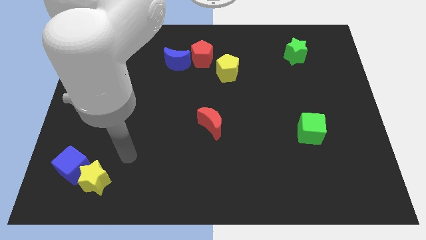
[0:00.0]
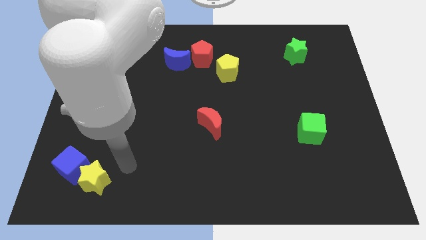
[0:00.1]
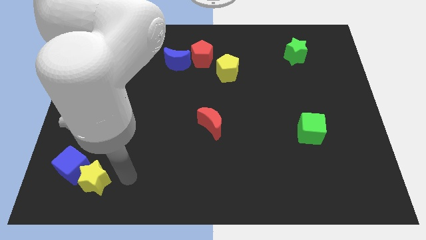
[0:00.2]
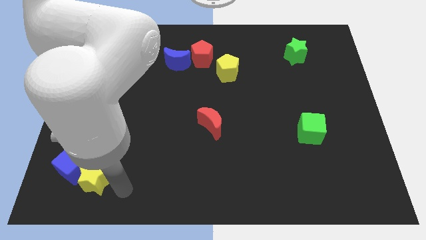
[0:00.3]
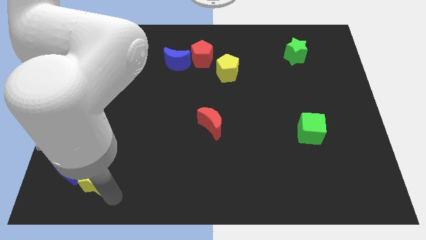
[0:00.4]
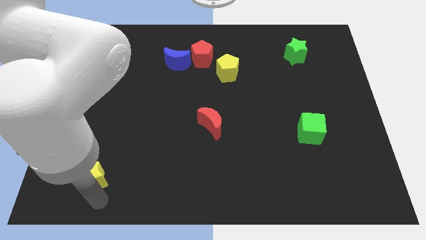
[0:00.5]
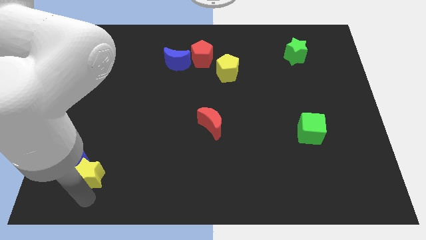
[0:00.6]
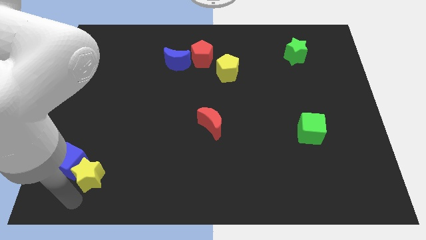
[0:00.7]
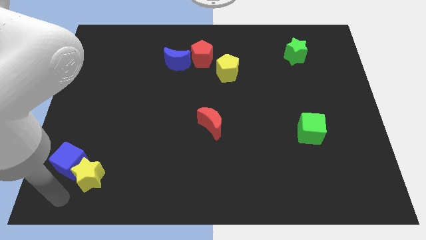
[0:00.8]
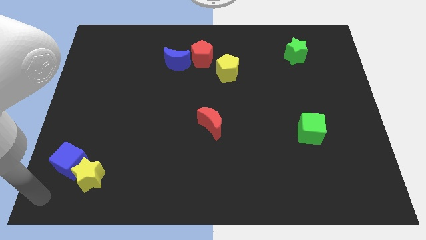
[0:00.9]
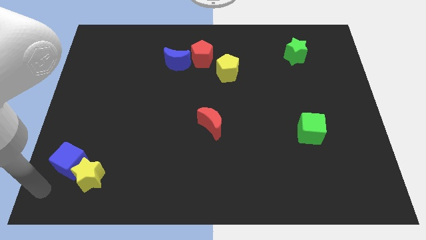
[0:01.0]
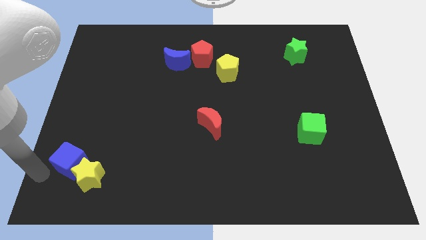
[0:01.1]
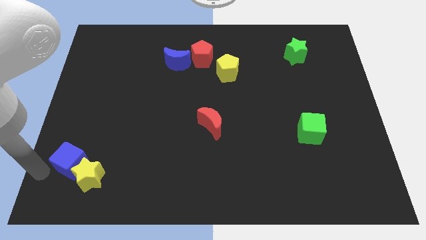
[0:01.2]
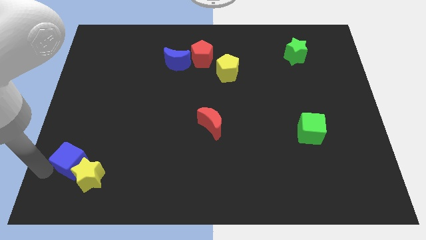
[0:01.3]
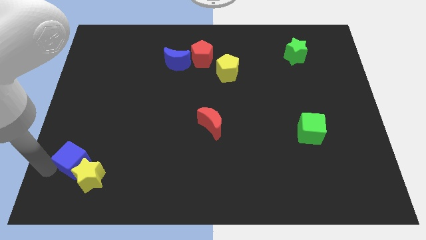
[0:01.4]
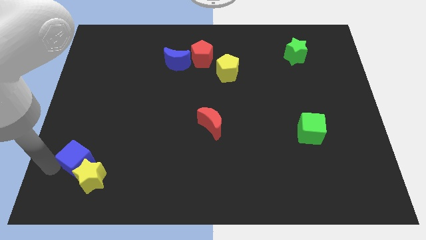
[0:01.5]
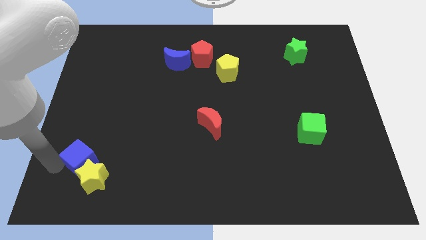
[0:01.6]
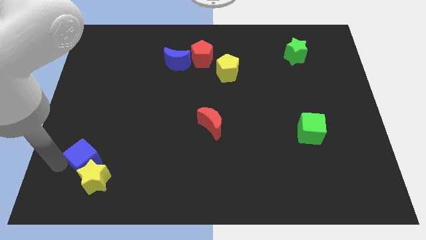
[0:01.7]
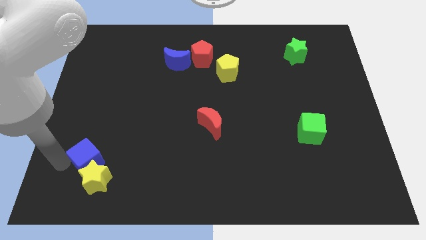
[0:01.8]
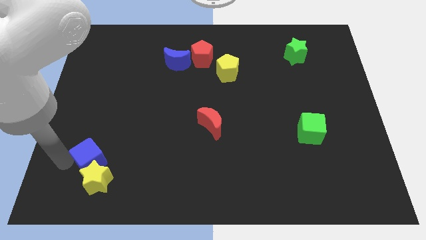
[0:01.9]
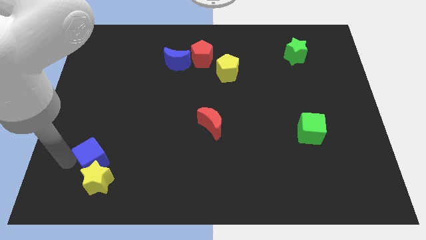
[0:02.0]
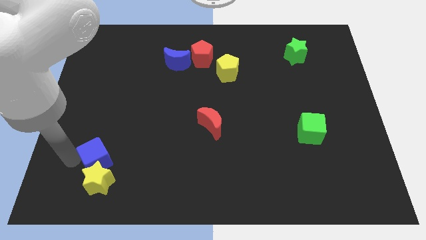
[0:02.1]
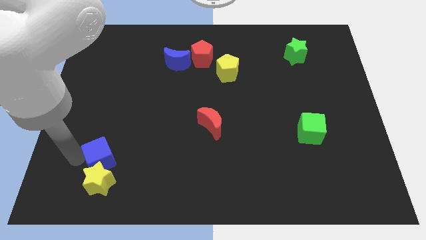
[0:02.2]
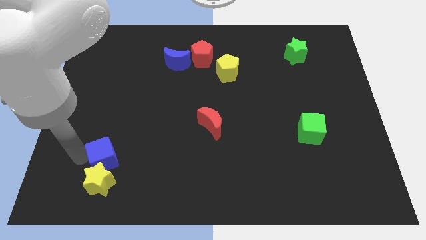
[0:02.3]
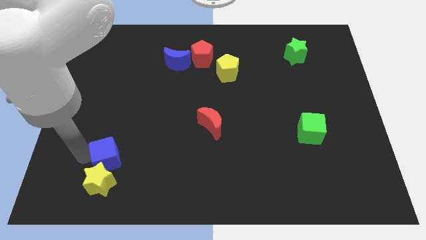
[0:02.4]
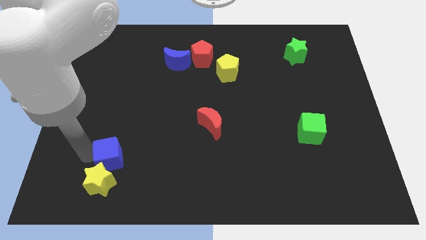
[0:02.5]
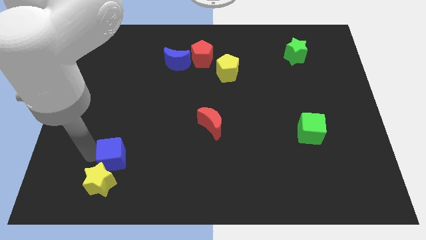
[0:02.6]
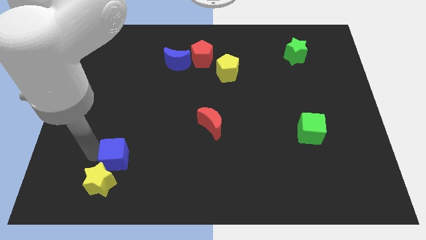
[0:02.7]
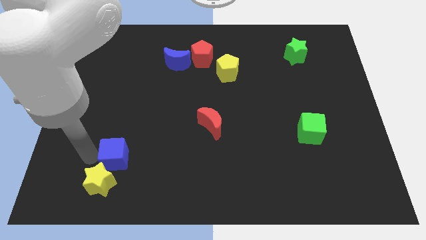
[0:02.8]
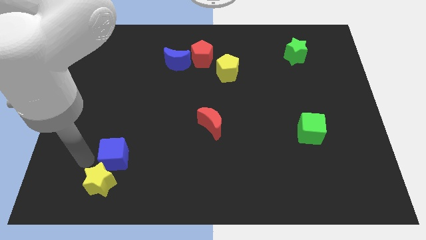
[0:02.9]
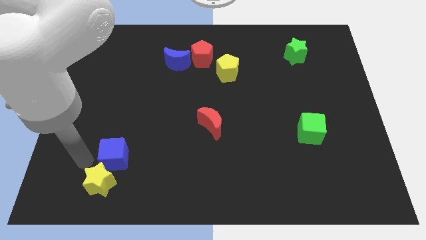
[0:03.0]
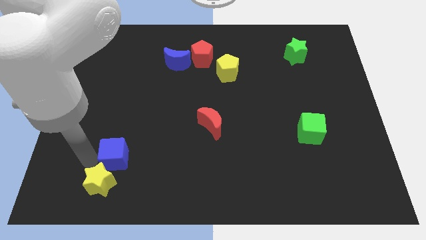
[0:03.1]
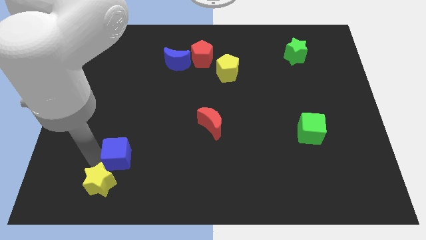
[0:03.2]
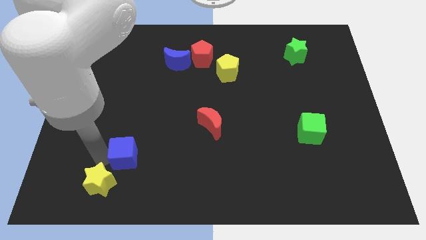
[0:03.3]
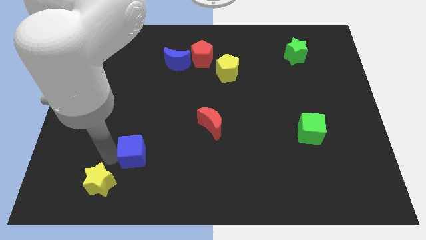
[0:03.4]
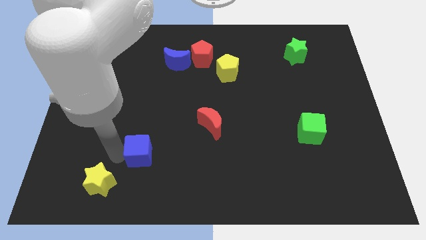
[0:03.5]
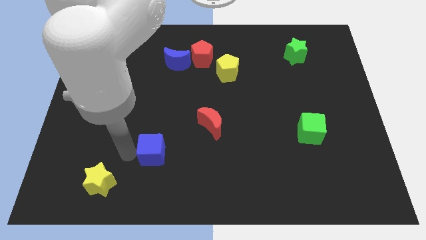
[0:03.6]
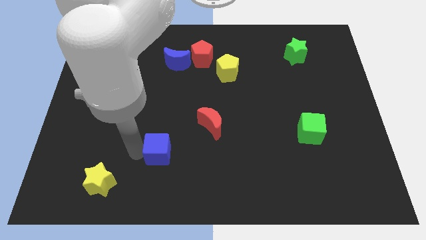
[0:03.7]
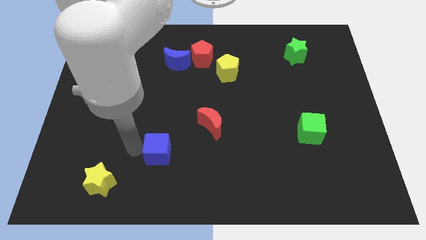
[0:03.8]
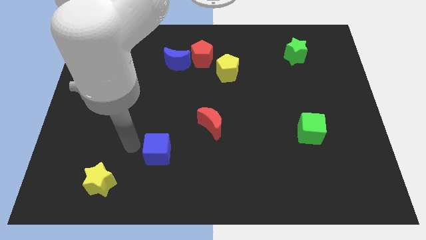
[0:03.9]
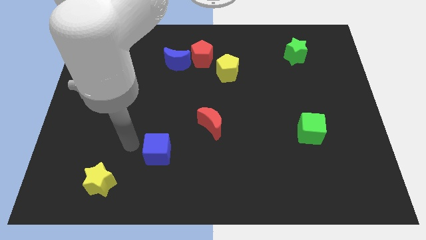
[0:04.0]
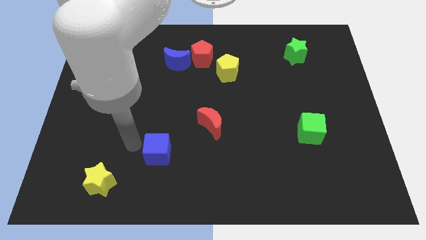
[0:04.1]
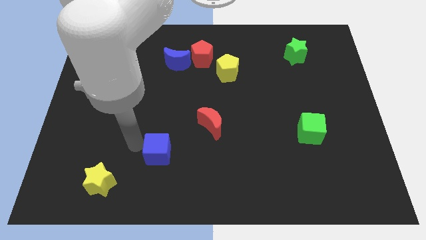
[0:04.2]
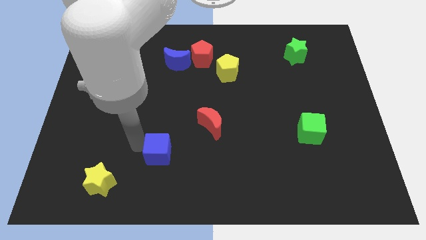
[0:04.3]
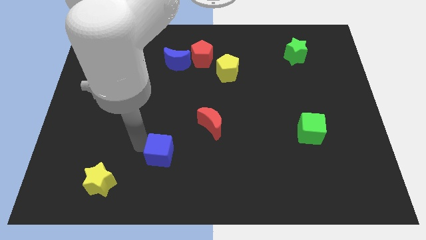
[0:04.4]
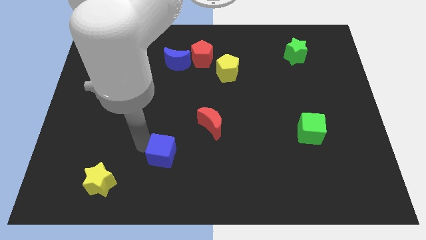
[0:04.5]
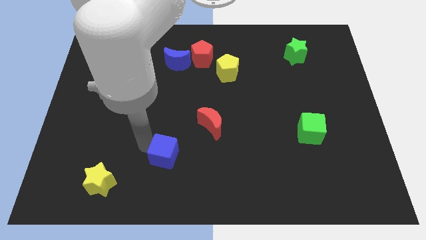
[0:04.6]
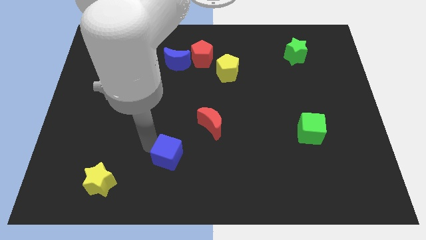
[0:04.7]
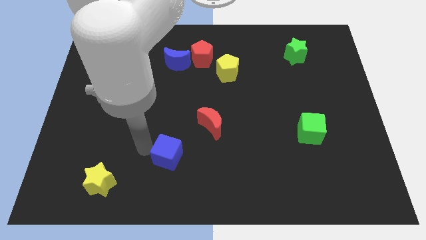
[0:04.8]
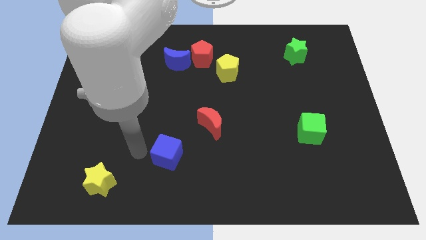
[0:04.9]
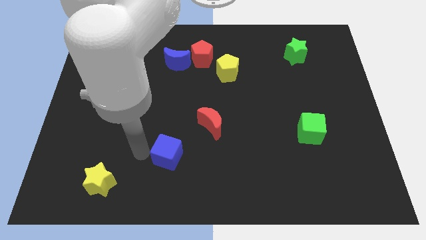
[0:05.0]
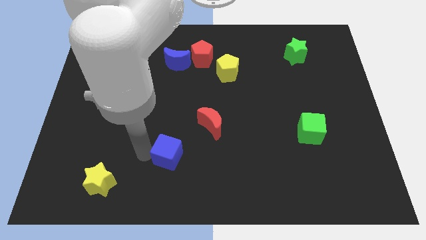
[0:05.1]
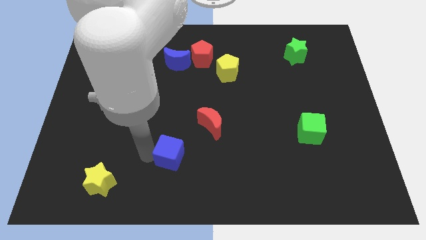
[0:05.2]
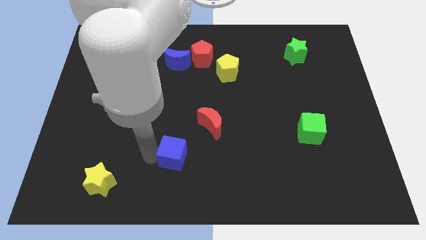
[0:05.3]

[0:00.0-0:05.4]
slide the blue cube to the right

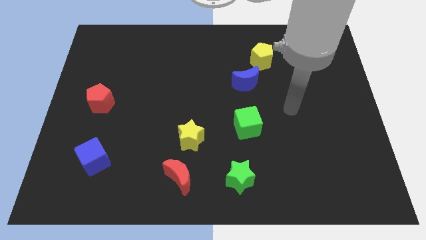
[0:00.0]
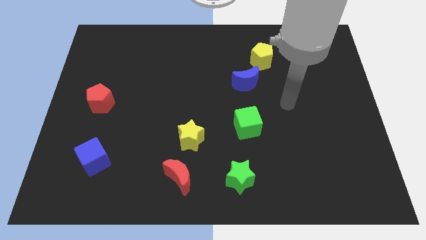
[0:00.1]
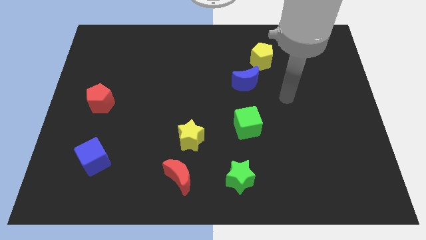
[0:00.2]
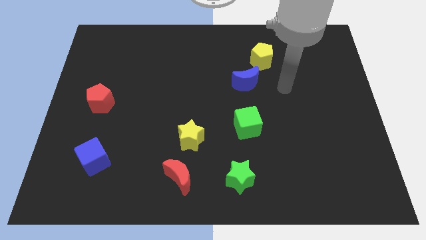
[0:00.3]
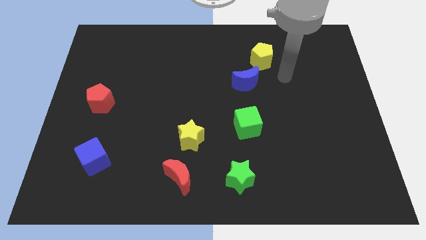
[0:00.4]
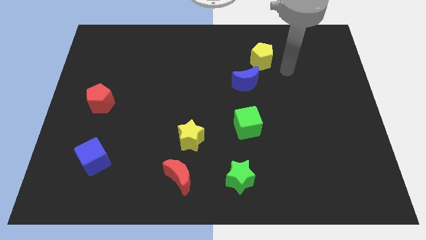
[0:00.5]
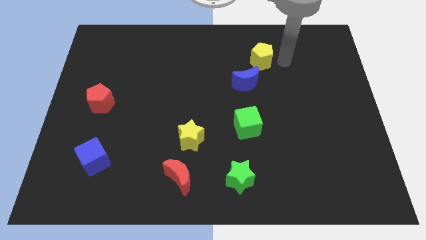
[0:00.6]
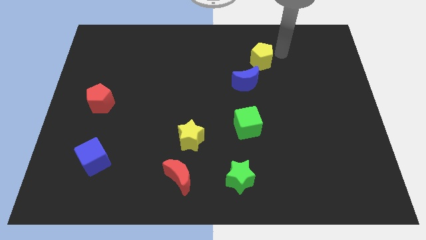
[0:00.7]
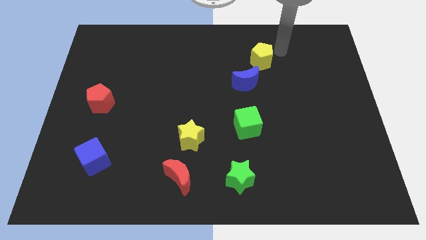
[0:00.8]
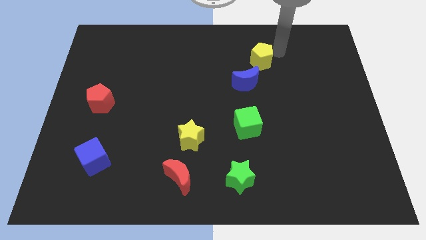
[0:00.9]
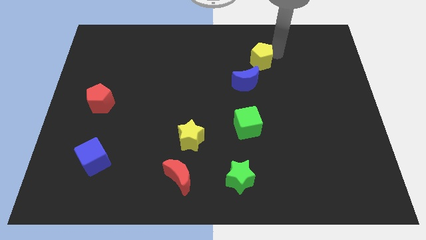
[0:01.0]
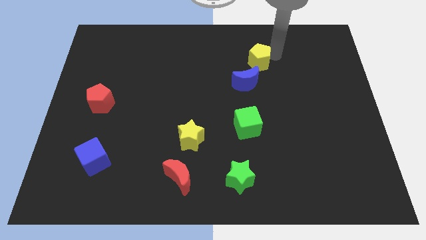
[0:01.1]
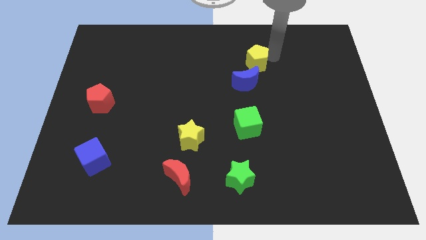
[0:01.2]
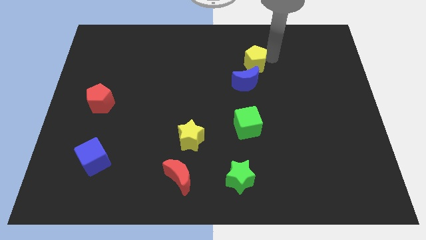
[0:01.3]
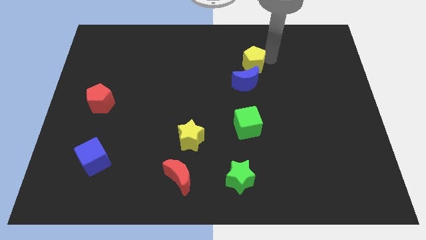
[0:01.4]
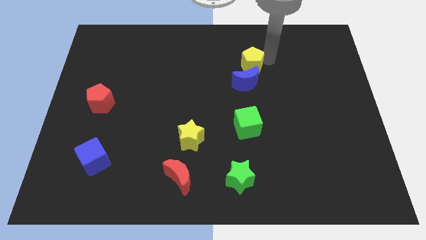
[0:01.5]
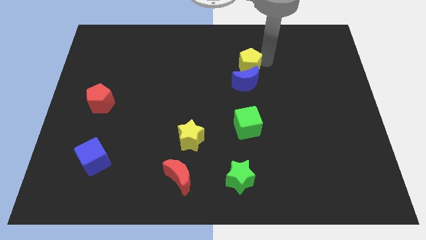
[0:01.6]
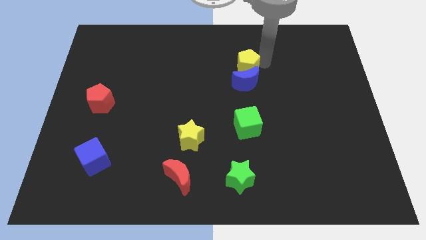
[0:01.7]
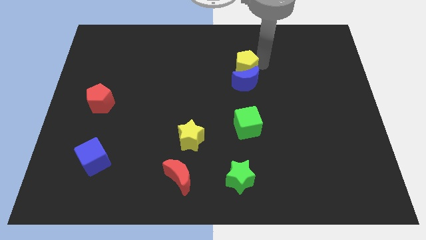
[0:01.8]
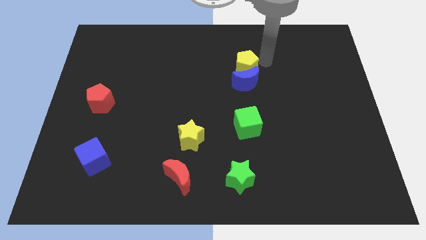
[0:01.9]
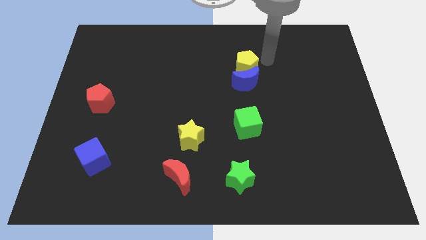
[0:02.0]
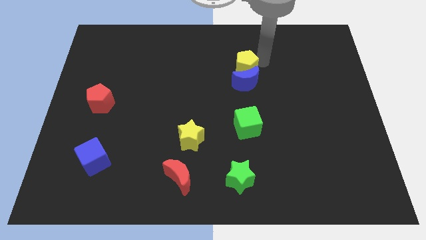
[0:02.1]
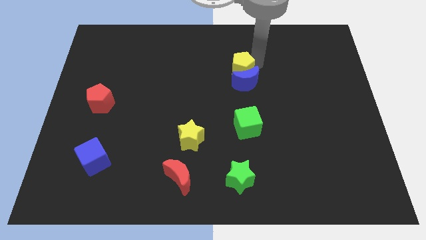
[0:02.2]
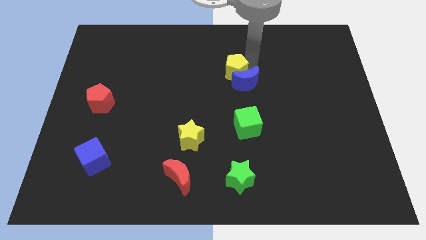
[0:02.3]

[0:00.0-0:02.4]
slightly slide the yellow pentagon down and to the left

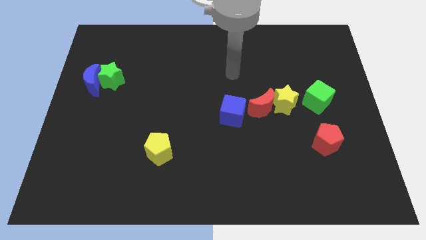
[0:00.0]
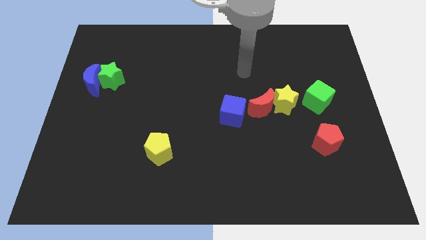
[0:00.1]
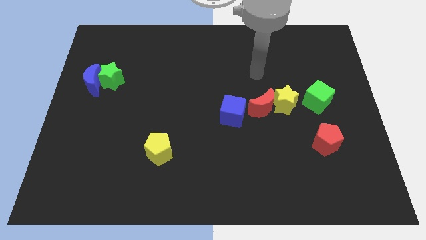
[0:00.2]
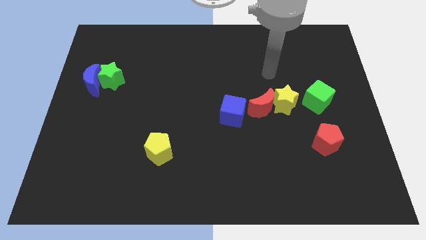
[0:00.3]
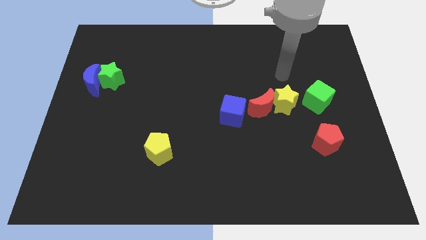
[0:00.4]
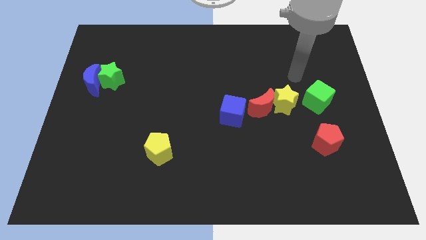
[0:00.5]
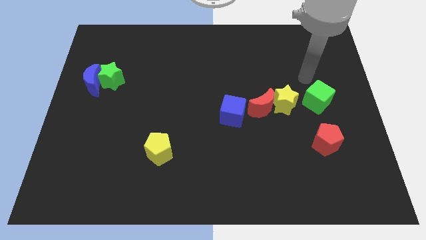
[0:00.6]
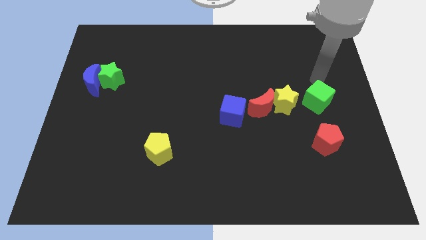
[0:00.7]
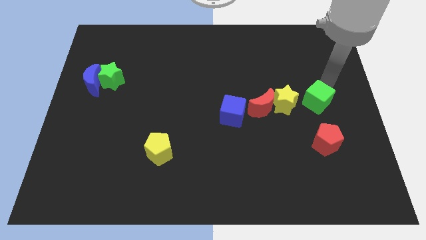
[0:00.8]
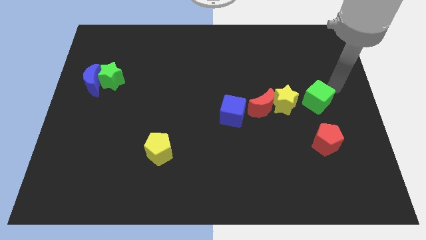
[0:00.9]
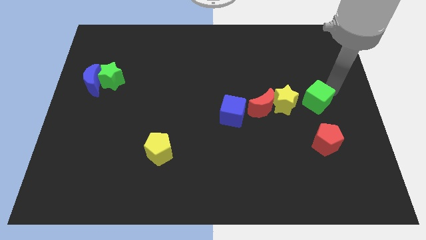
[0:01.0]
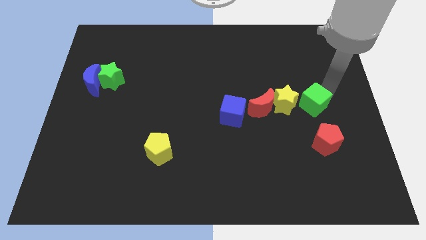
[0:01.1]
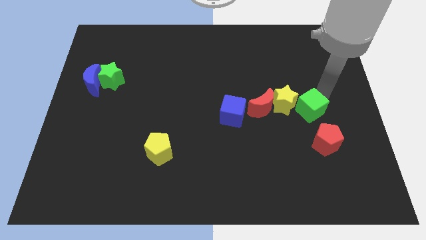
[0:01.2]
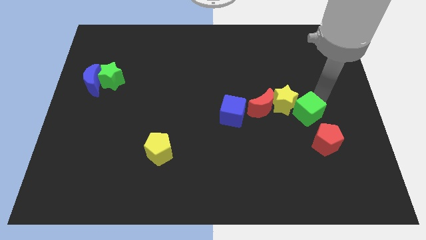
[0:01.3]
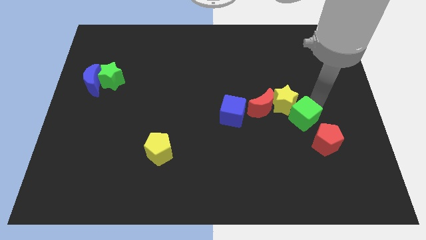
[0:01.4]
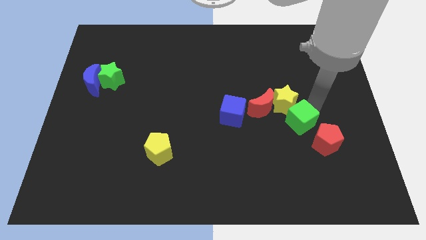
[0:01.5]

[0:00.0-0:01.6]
slide the green cube a little downwards and to the left diagonally
